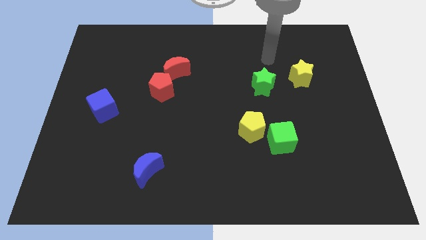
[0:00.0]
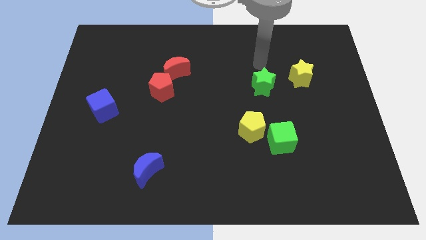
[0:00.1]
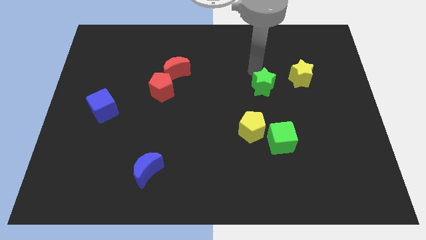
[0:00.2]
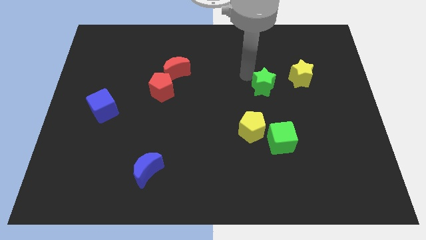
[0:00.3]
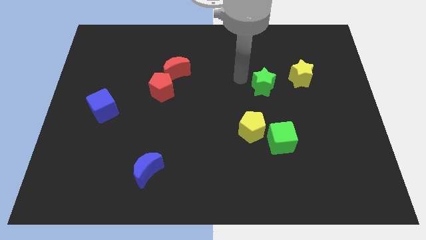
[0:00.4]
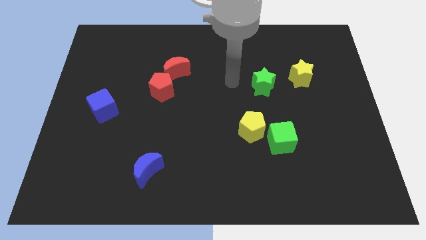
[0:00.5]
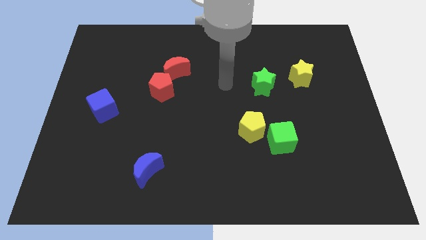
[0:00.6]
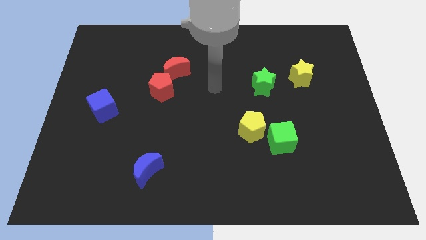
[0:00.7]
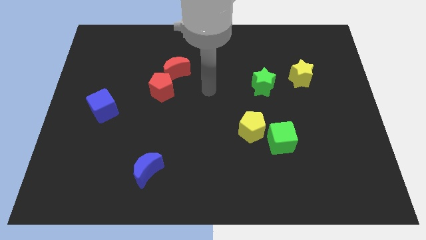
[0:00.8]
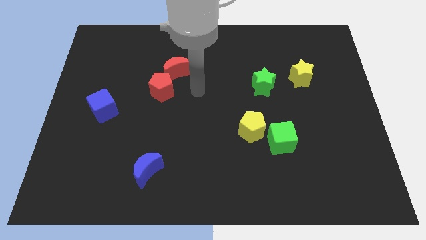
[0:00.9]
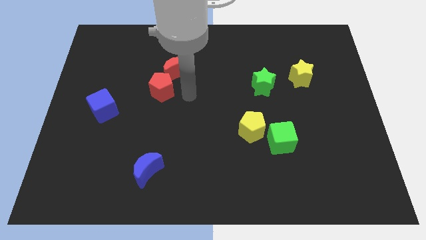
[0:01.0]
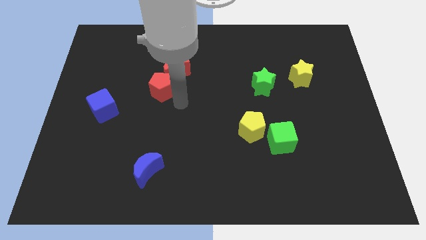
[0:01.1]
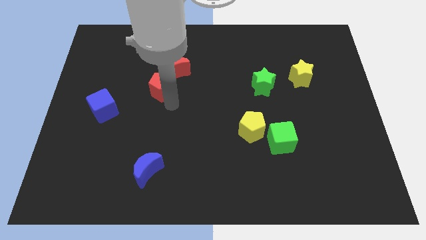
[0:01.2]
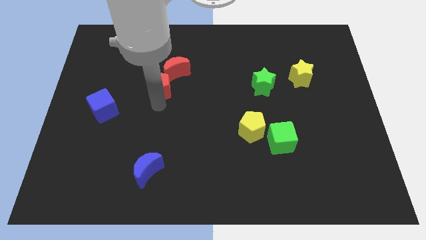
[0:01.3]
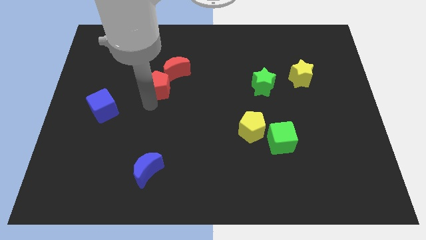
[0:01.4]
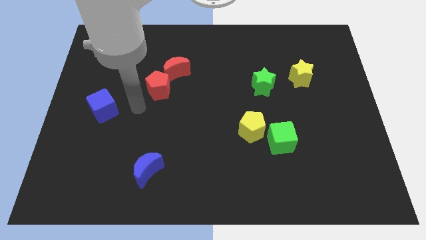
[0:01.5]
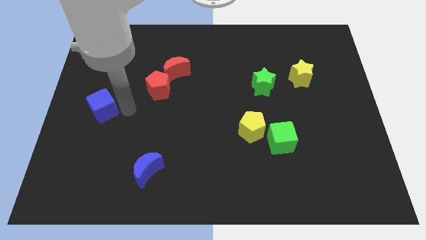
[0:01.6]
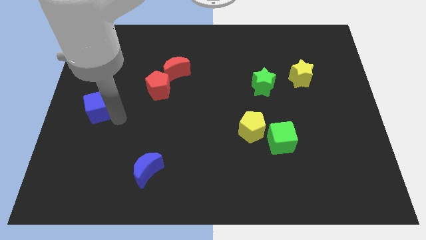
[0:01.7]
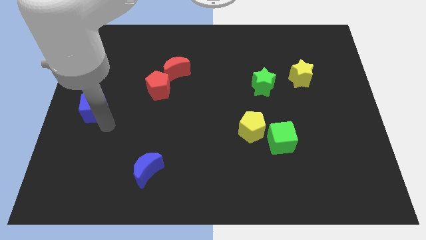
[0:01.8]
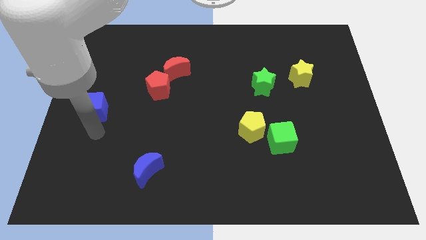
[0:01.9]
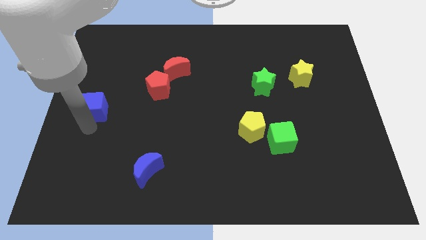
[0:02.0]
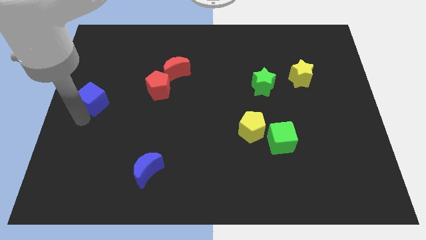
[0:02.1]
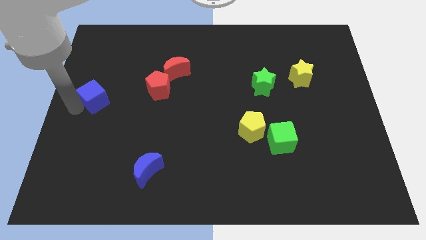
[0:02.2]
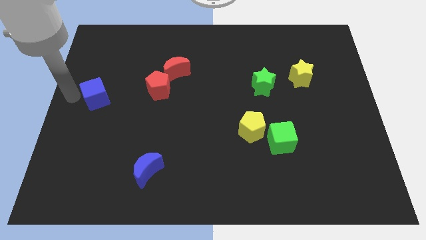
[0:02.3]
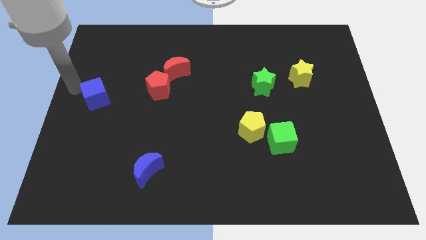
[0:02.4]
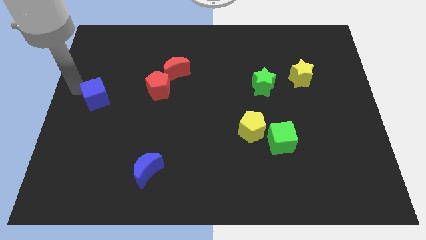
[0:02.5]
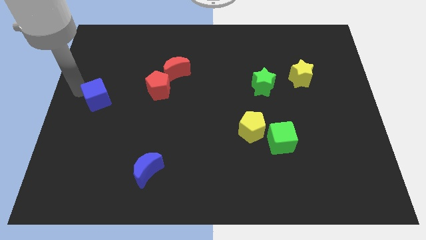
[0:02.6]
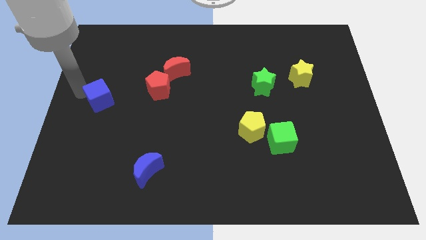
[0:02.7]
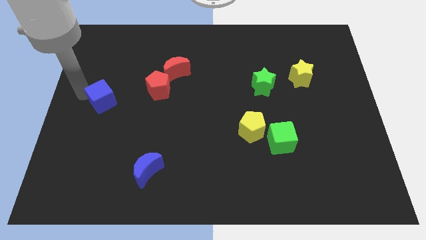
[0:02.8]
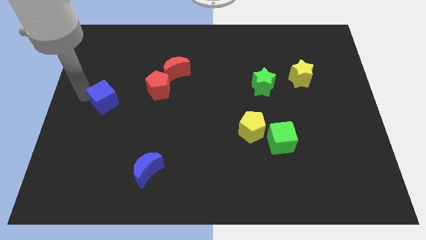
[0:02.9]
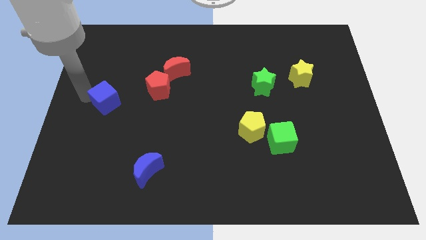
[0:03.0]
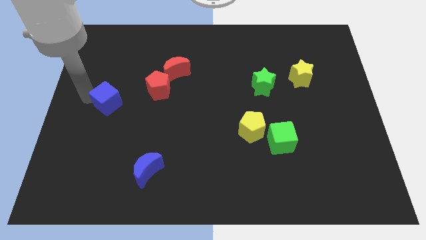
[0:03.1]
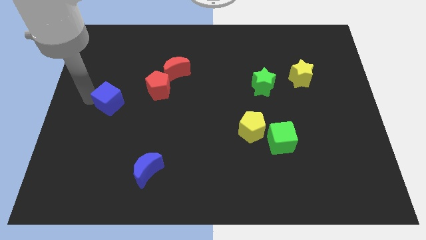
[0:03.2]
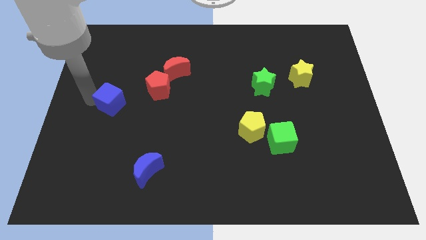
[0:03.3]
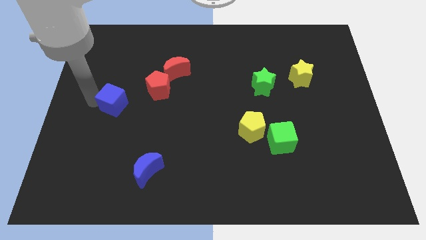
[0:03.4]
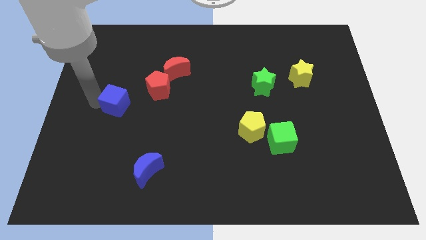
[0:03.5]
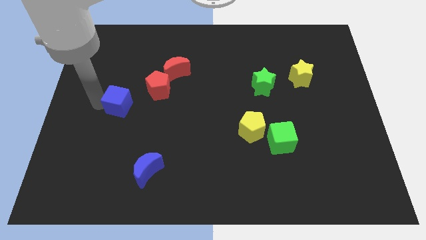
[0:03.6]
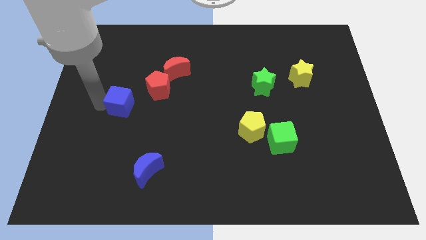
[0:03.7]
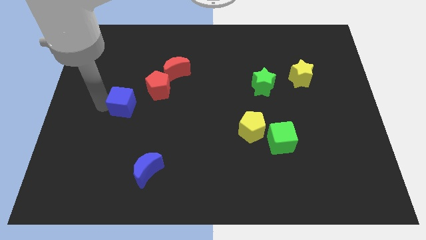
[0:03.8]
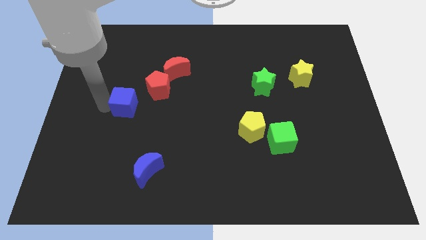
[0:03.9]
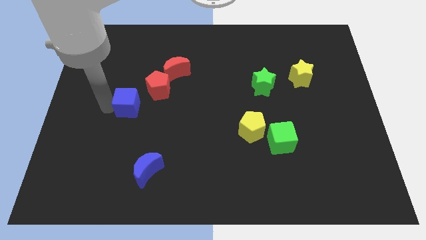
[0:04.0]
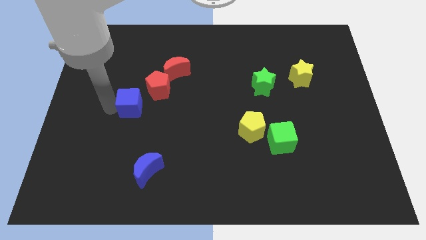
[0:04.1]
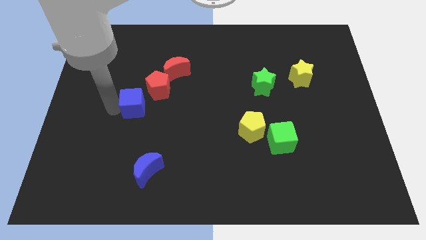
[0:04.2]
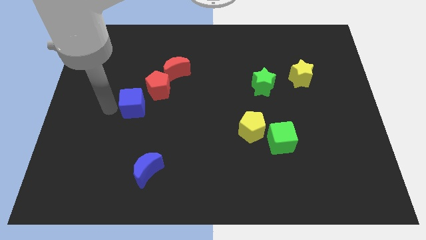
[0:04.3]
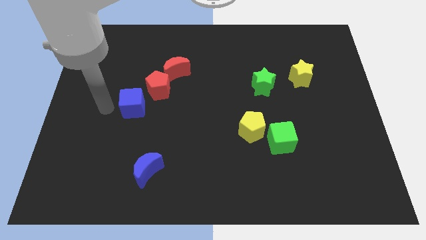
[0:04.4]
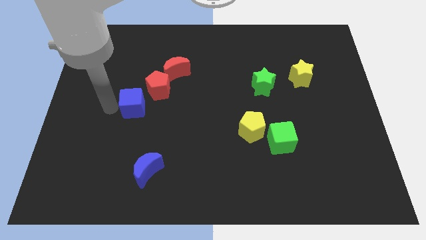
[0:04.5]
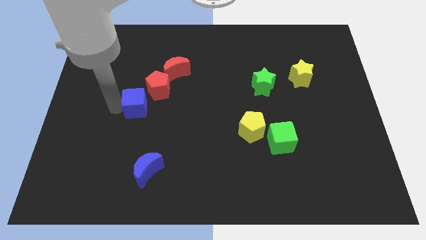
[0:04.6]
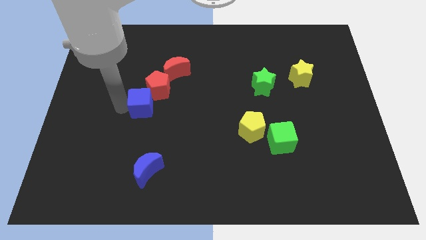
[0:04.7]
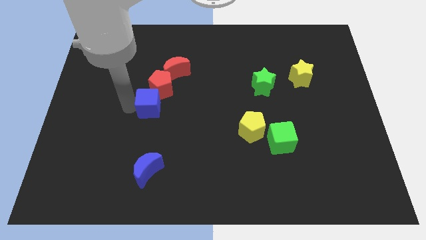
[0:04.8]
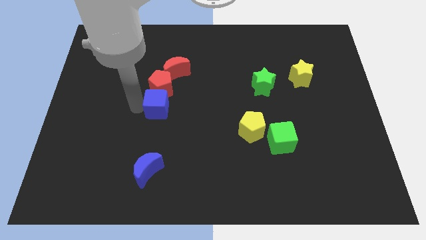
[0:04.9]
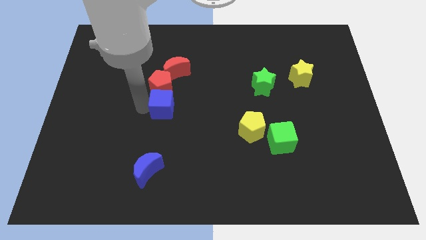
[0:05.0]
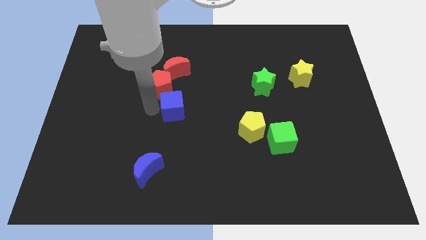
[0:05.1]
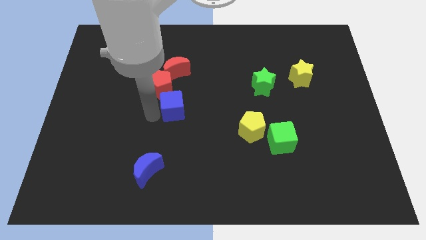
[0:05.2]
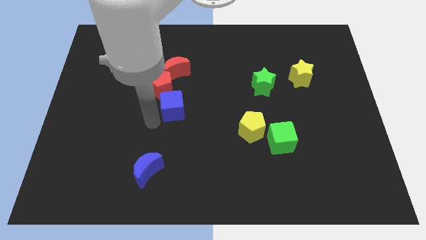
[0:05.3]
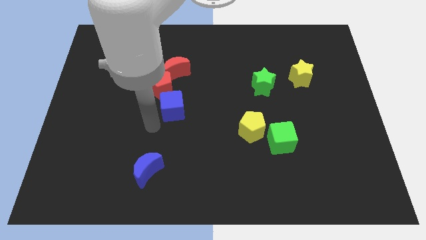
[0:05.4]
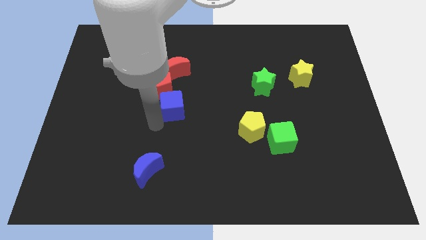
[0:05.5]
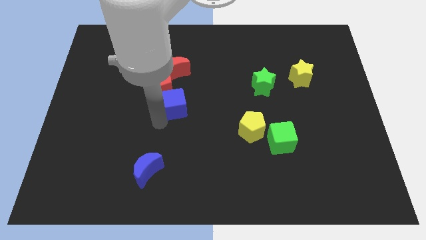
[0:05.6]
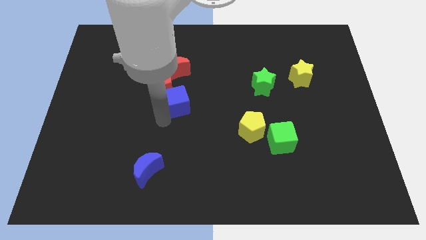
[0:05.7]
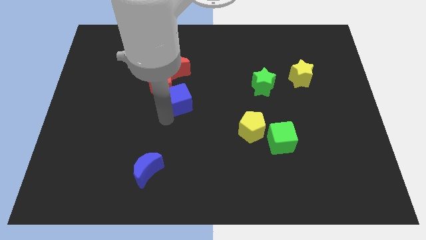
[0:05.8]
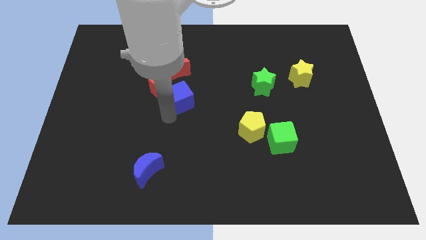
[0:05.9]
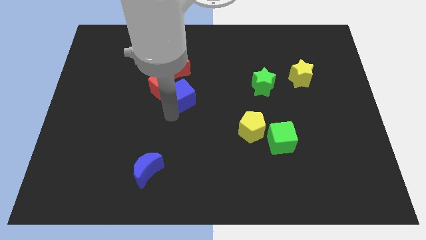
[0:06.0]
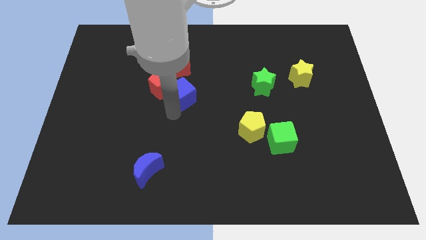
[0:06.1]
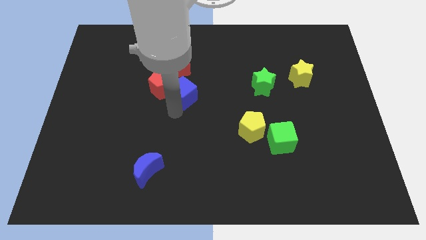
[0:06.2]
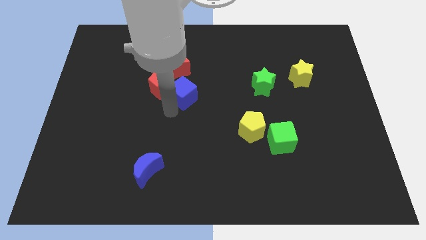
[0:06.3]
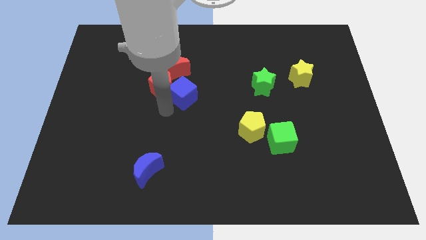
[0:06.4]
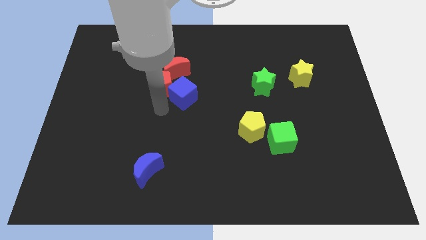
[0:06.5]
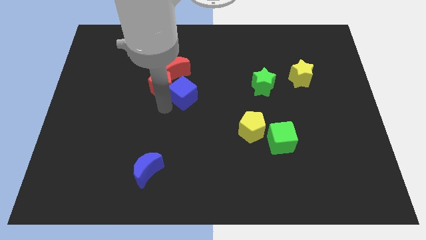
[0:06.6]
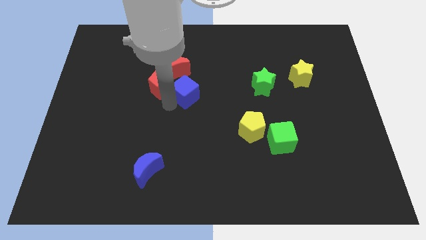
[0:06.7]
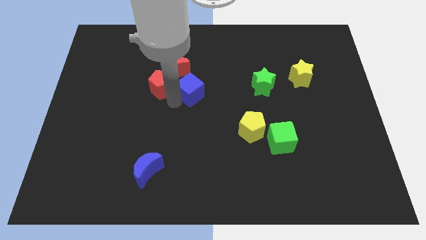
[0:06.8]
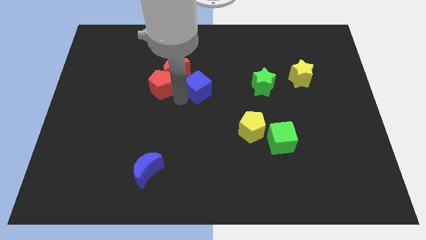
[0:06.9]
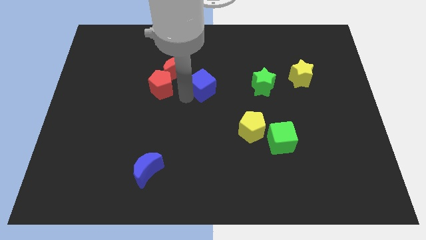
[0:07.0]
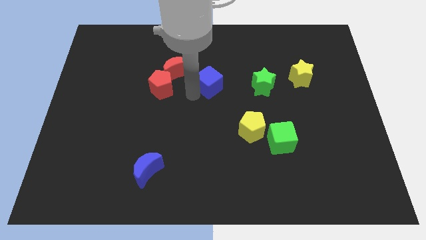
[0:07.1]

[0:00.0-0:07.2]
push the blue cube to the right side of the red moon

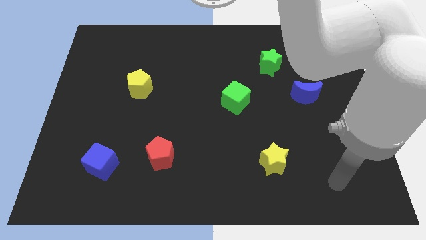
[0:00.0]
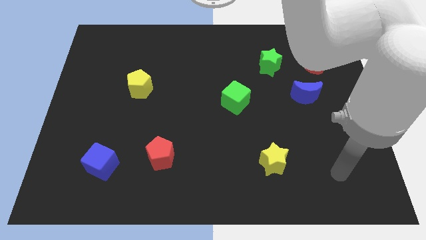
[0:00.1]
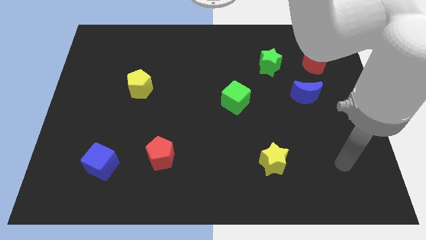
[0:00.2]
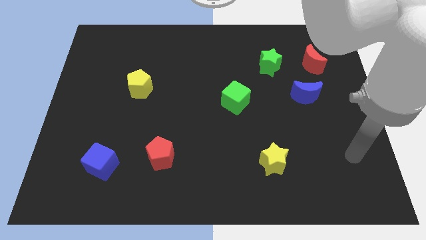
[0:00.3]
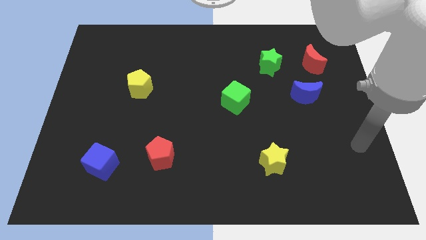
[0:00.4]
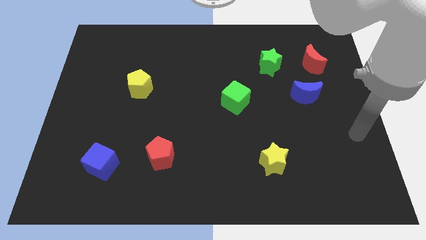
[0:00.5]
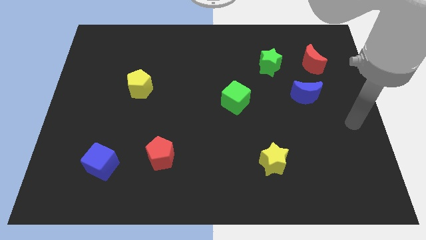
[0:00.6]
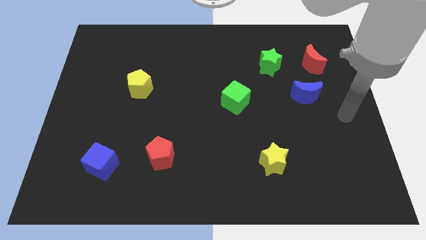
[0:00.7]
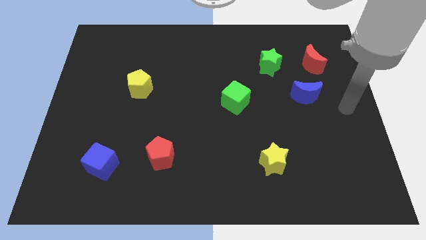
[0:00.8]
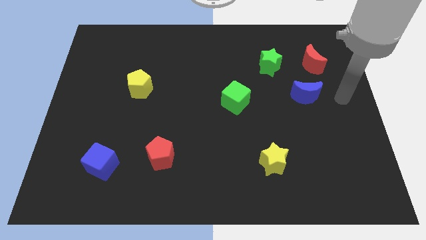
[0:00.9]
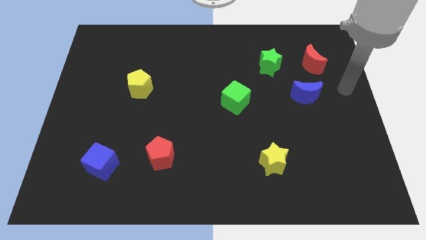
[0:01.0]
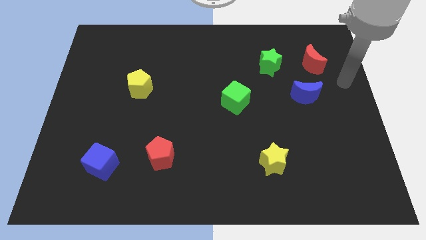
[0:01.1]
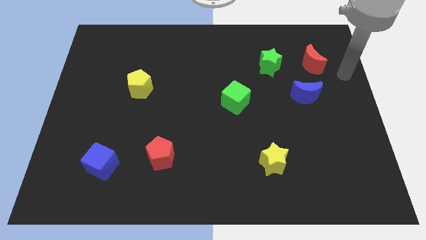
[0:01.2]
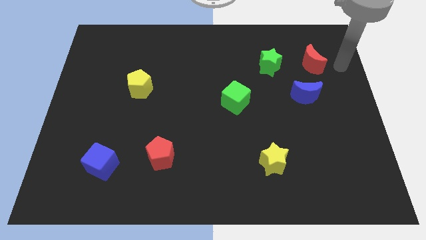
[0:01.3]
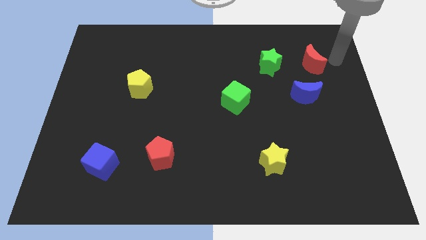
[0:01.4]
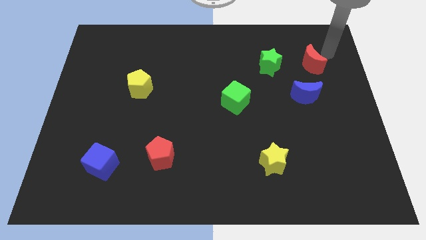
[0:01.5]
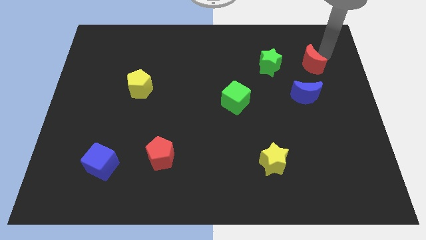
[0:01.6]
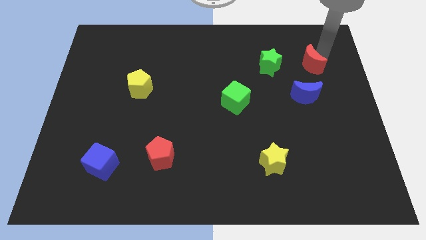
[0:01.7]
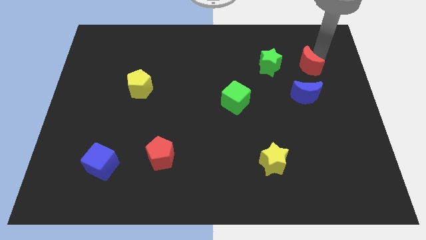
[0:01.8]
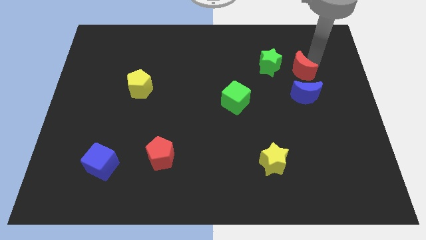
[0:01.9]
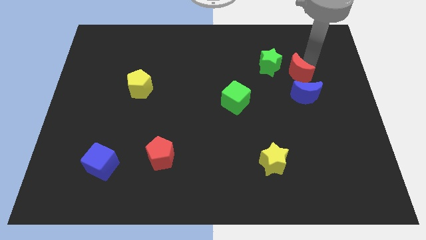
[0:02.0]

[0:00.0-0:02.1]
push the red moon to the top left side of the blue moon
